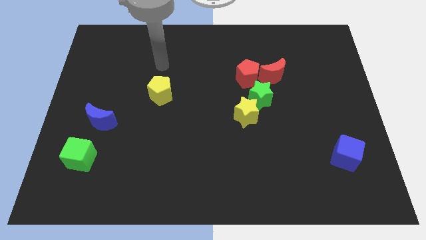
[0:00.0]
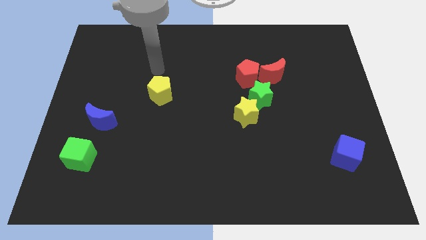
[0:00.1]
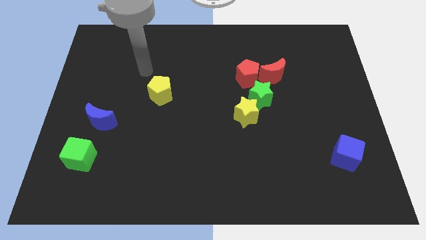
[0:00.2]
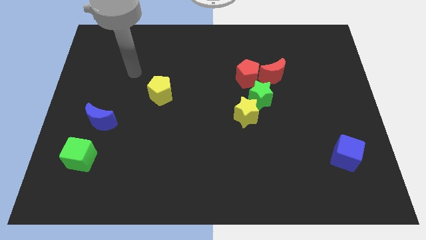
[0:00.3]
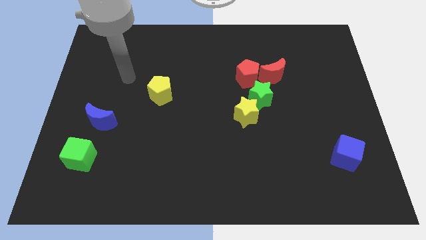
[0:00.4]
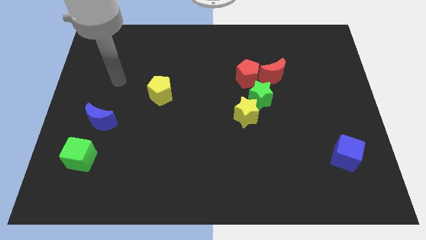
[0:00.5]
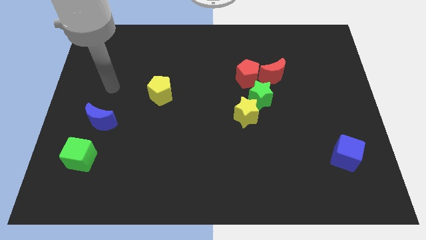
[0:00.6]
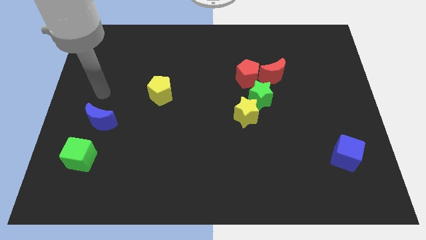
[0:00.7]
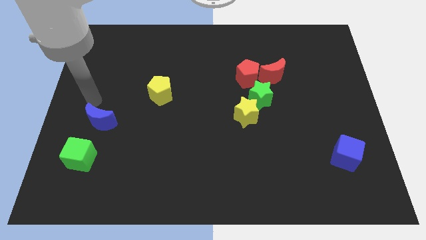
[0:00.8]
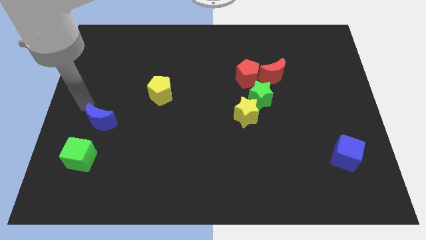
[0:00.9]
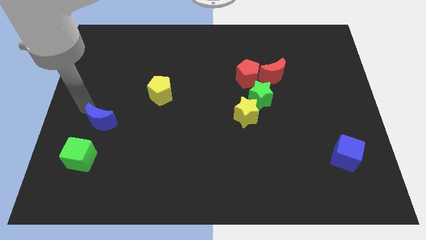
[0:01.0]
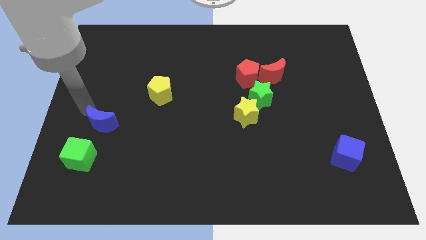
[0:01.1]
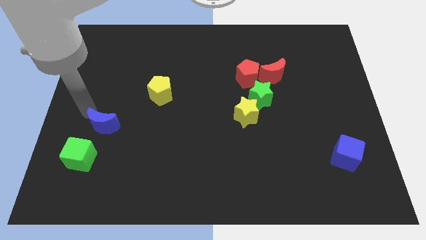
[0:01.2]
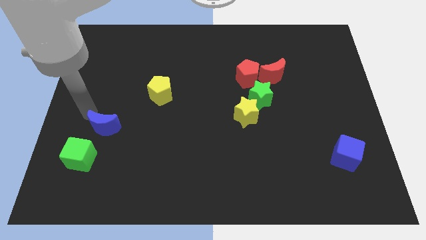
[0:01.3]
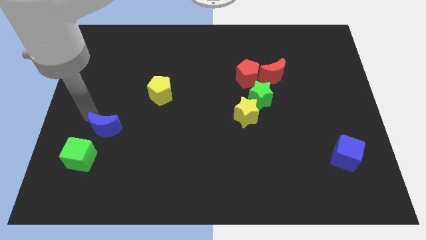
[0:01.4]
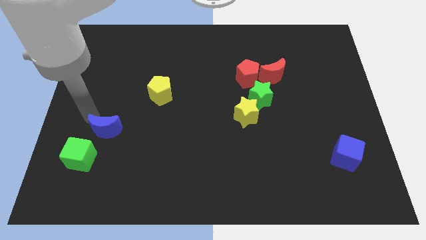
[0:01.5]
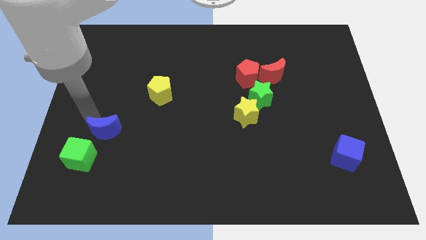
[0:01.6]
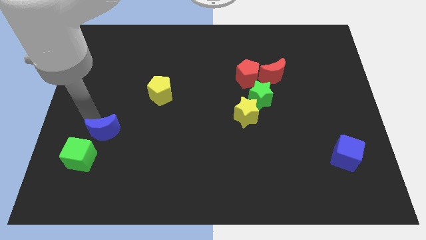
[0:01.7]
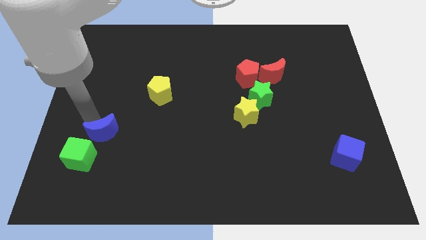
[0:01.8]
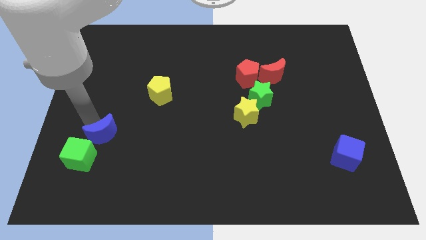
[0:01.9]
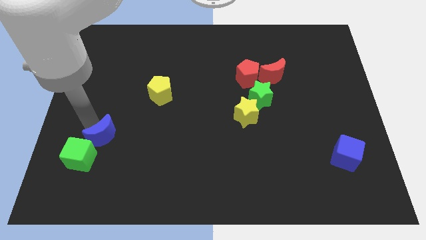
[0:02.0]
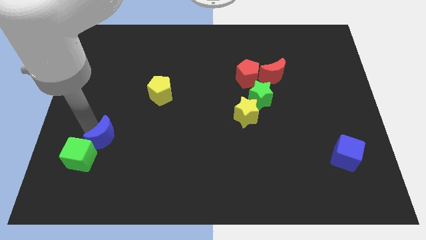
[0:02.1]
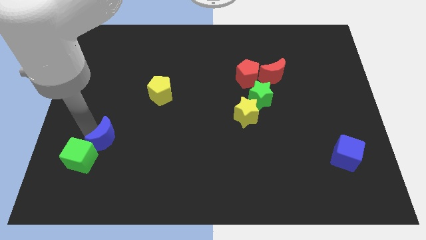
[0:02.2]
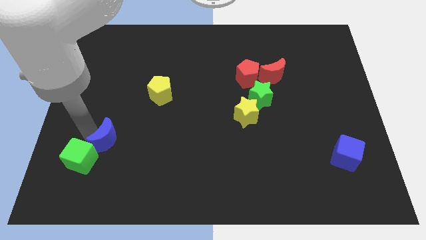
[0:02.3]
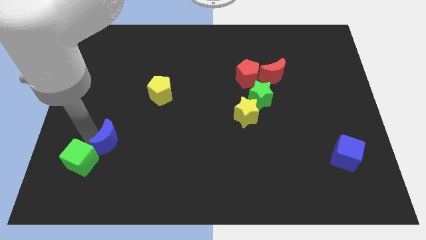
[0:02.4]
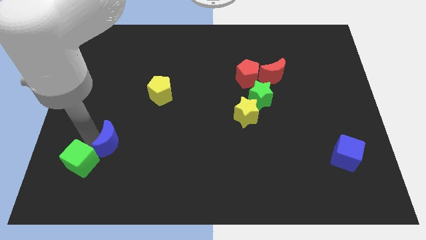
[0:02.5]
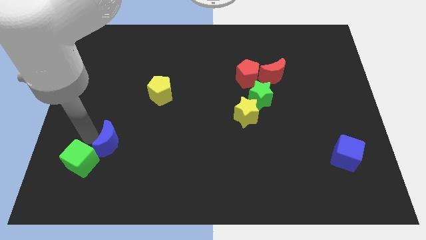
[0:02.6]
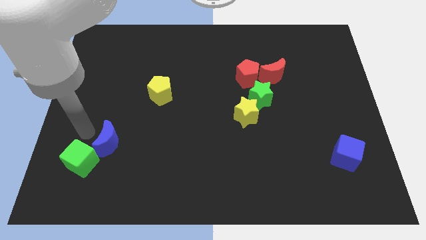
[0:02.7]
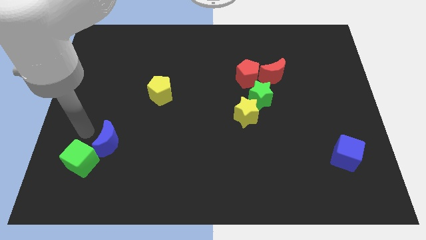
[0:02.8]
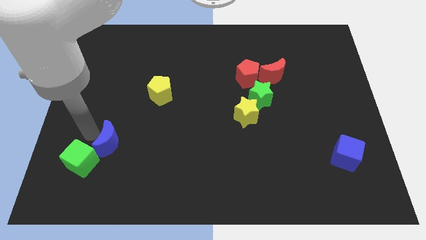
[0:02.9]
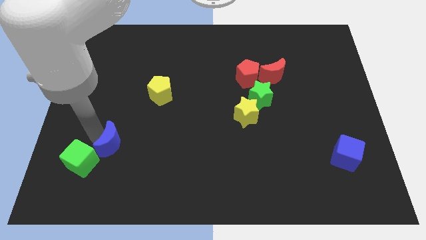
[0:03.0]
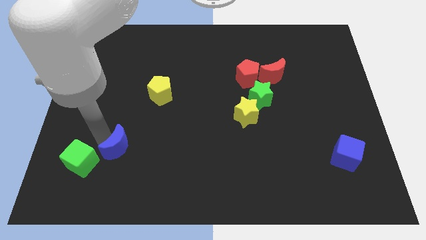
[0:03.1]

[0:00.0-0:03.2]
slide the blue moon slightly downwards and to the right

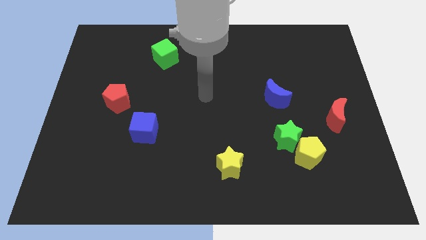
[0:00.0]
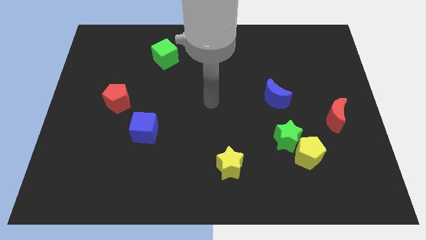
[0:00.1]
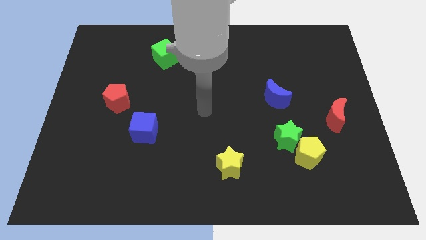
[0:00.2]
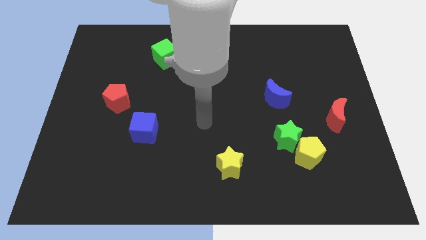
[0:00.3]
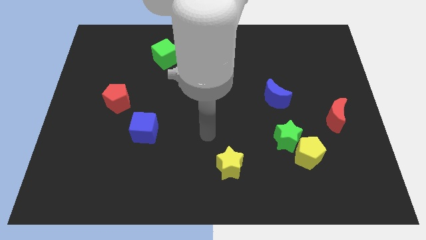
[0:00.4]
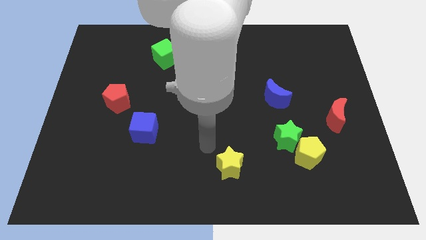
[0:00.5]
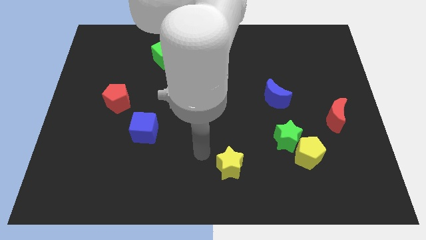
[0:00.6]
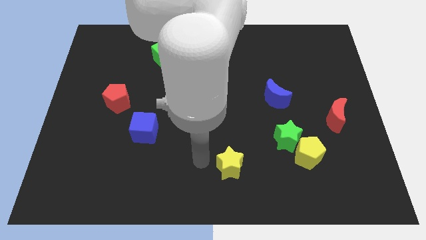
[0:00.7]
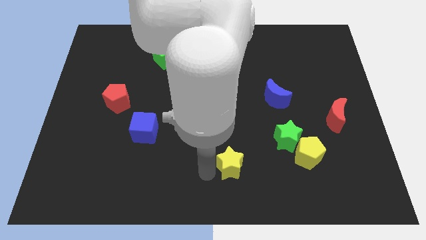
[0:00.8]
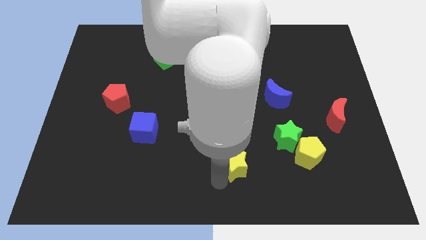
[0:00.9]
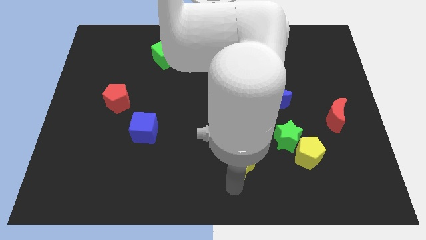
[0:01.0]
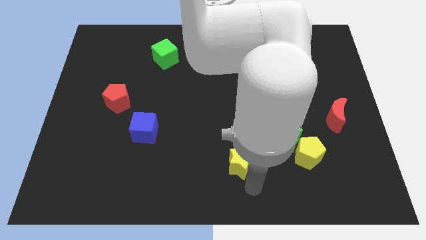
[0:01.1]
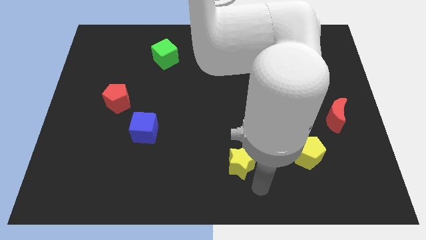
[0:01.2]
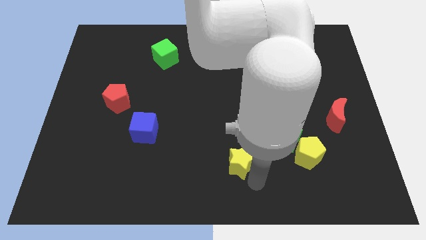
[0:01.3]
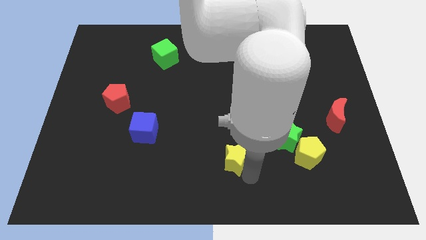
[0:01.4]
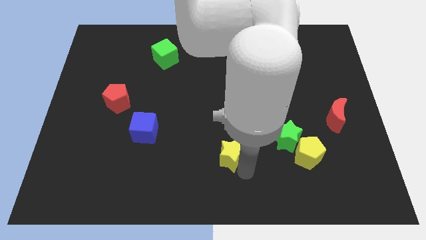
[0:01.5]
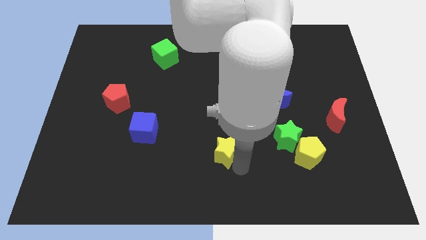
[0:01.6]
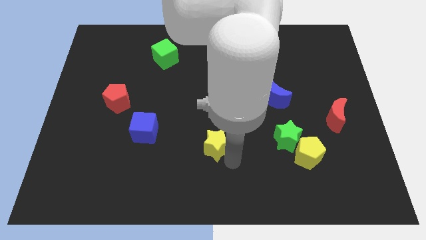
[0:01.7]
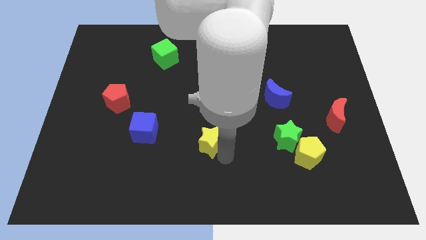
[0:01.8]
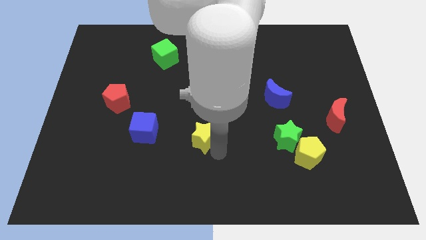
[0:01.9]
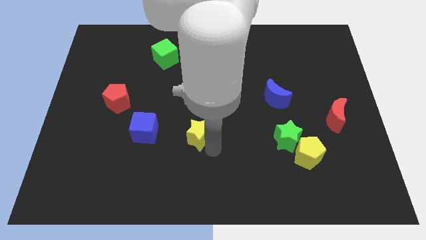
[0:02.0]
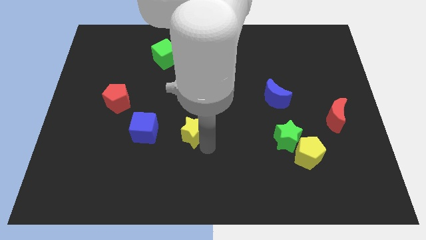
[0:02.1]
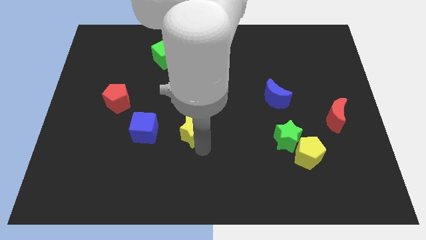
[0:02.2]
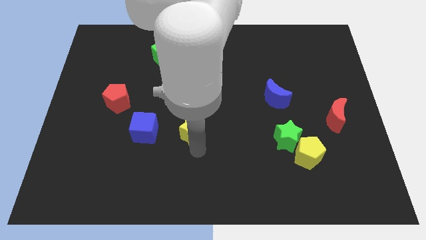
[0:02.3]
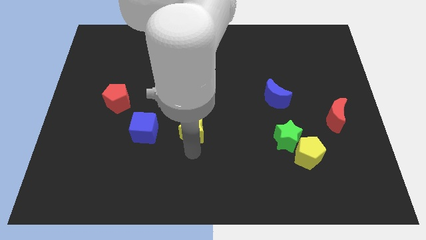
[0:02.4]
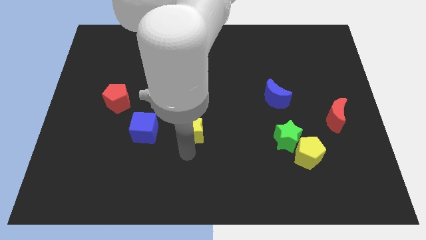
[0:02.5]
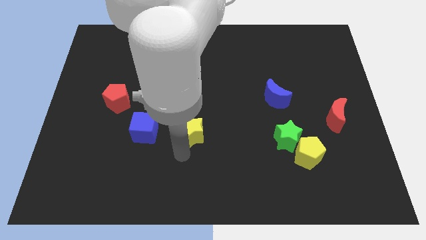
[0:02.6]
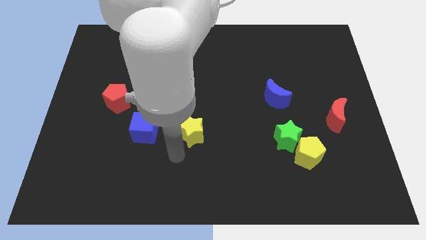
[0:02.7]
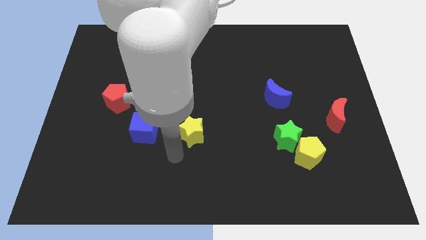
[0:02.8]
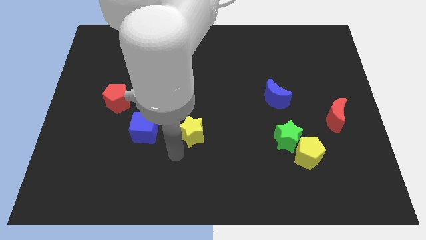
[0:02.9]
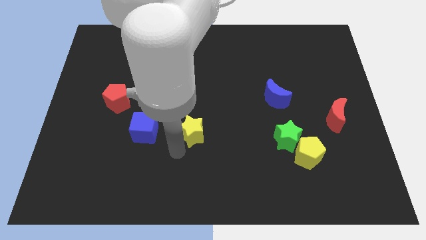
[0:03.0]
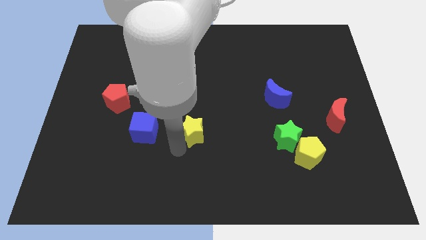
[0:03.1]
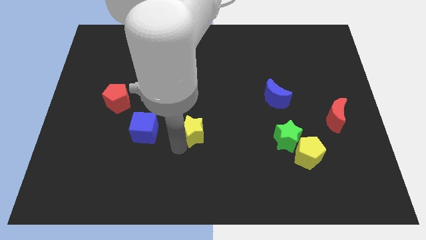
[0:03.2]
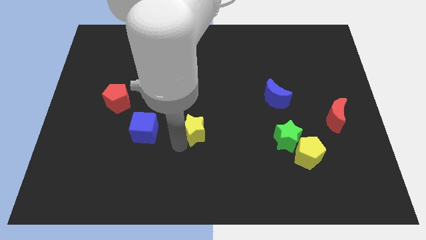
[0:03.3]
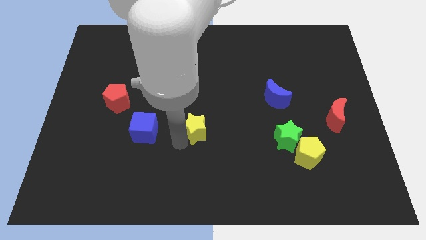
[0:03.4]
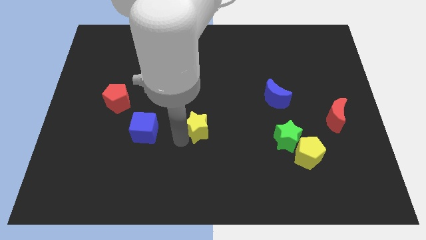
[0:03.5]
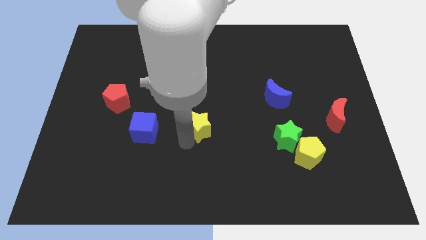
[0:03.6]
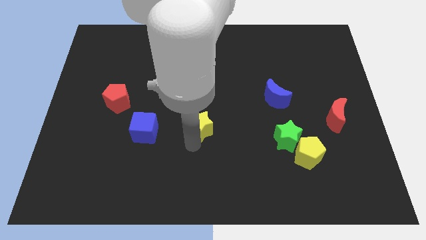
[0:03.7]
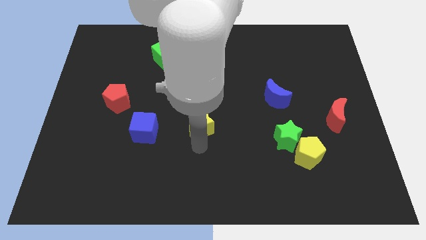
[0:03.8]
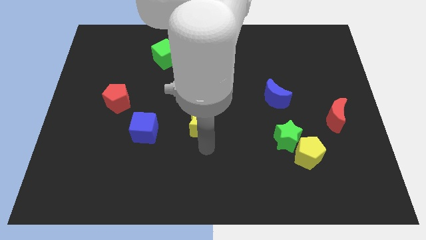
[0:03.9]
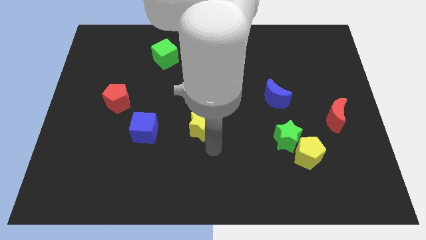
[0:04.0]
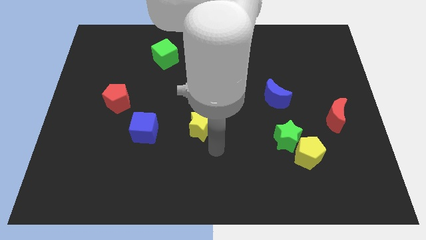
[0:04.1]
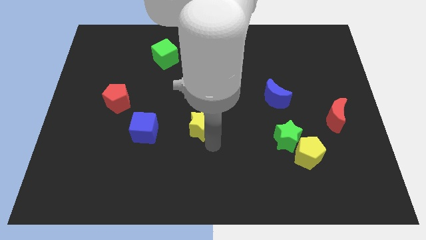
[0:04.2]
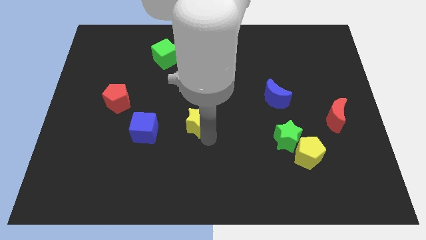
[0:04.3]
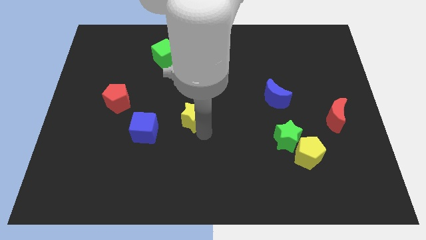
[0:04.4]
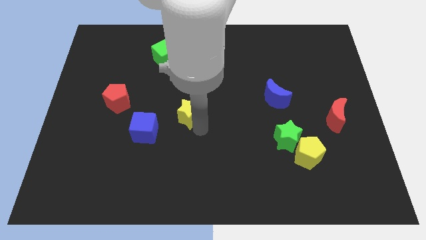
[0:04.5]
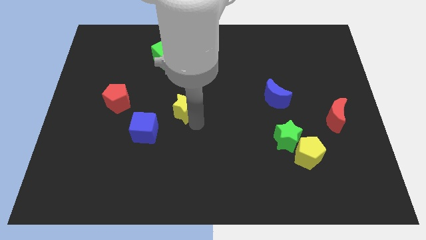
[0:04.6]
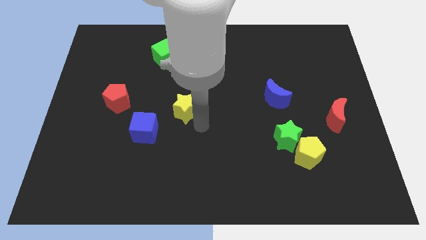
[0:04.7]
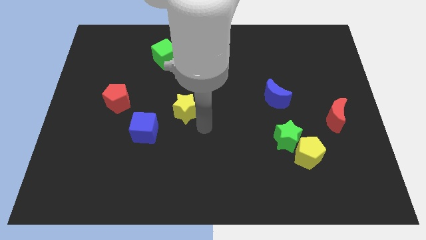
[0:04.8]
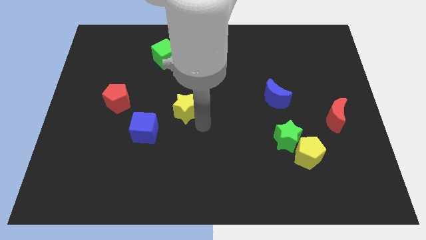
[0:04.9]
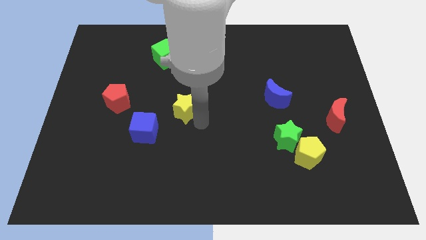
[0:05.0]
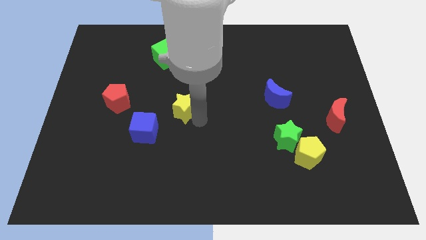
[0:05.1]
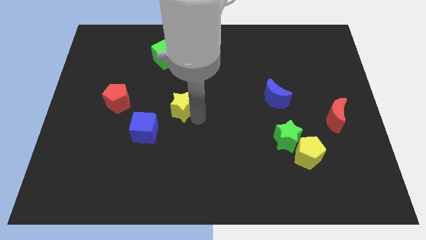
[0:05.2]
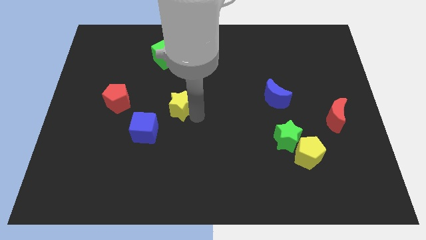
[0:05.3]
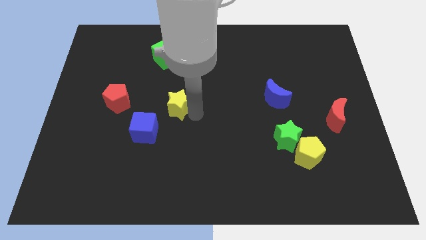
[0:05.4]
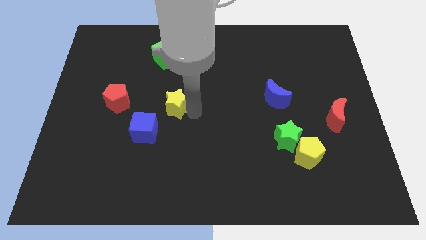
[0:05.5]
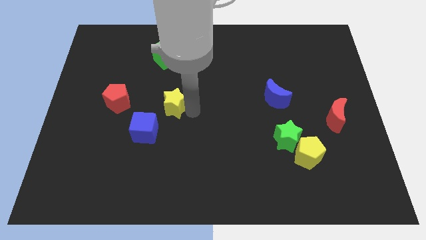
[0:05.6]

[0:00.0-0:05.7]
slide the yellow star up and to the left
